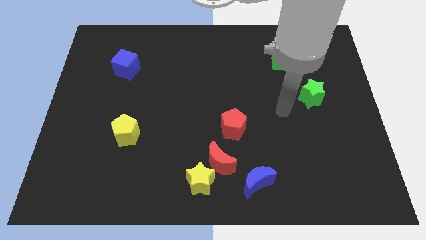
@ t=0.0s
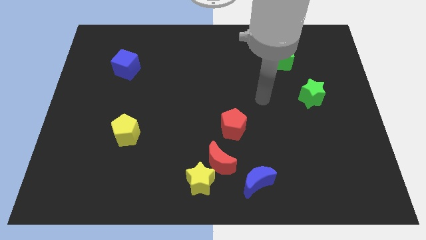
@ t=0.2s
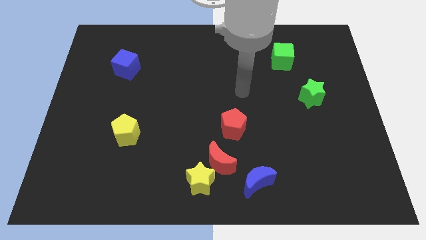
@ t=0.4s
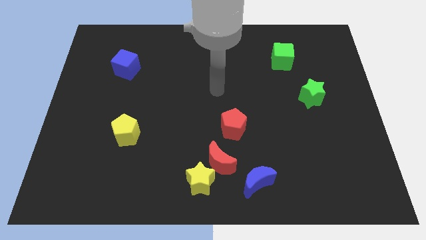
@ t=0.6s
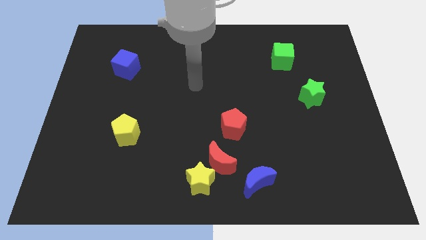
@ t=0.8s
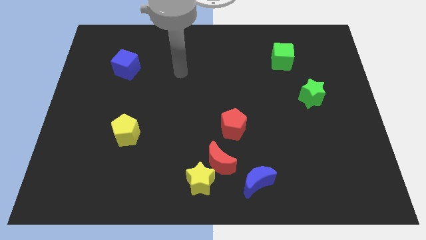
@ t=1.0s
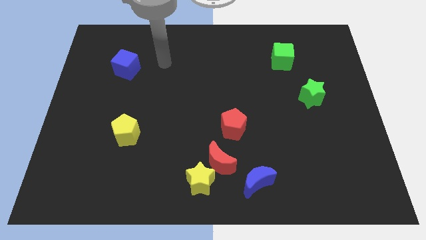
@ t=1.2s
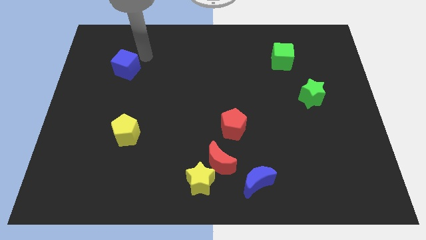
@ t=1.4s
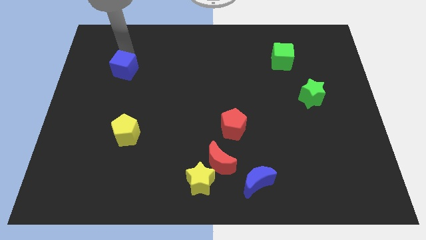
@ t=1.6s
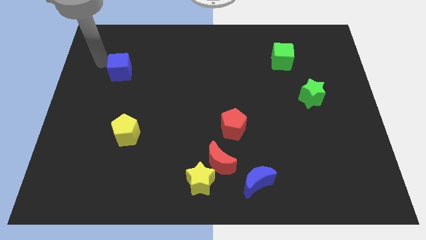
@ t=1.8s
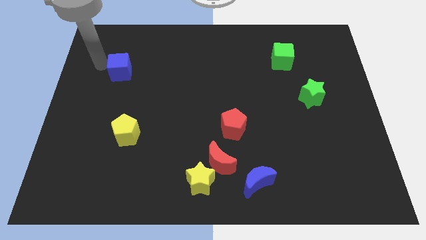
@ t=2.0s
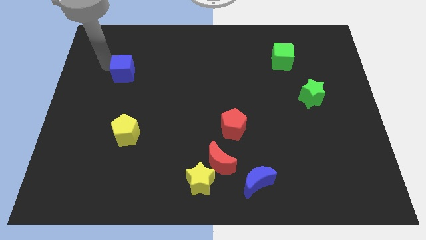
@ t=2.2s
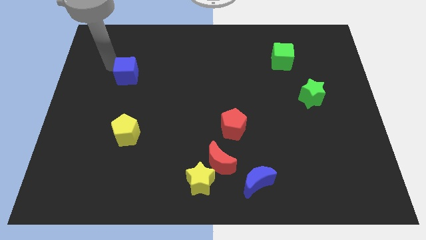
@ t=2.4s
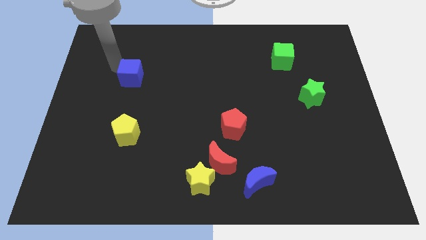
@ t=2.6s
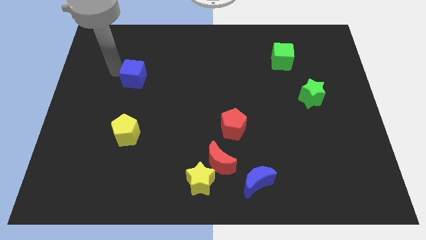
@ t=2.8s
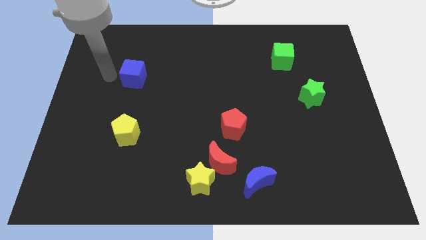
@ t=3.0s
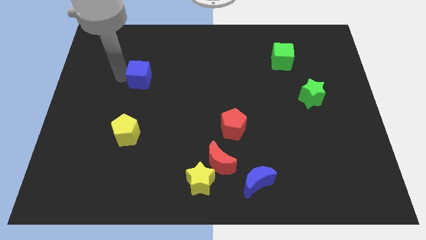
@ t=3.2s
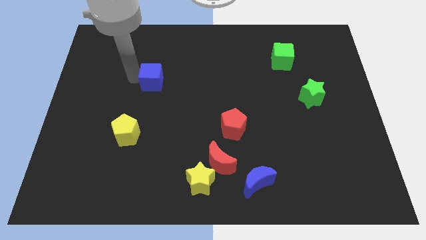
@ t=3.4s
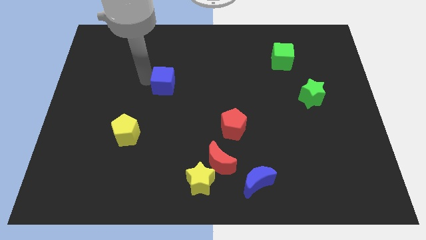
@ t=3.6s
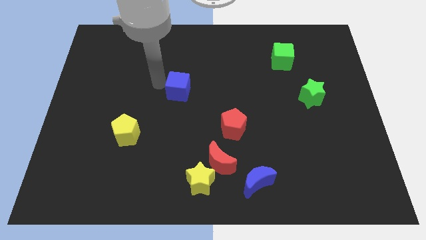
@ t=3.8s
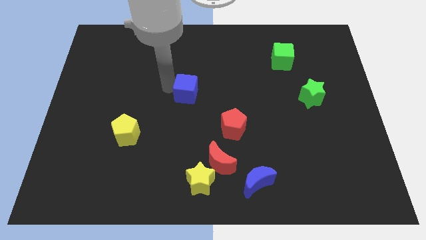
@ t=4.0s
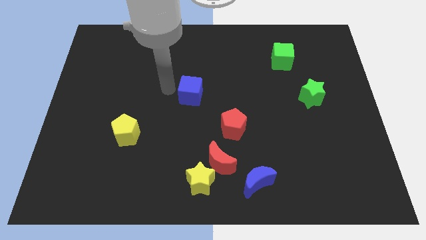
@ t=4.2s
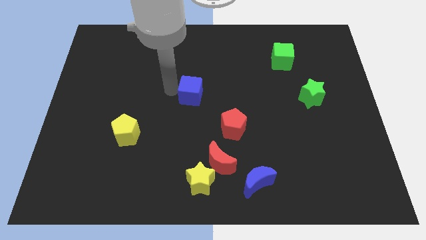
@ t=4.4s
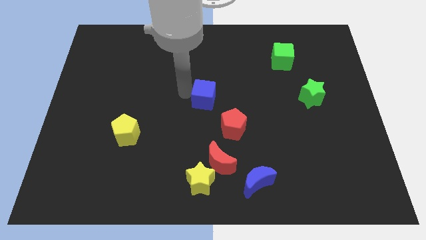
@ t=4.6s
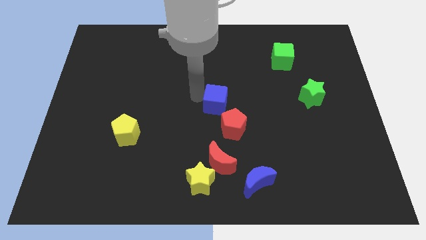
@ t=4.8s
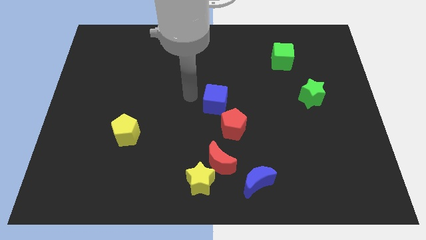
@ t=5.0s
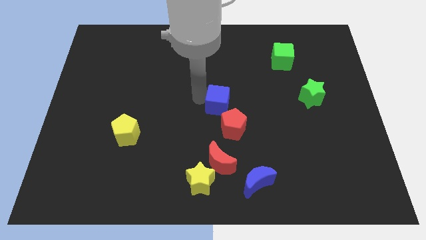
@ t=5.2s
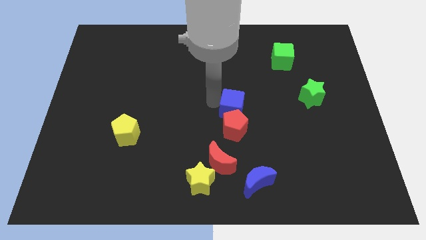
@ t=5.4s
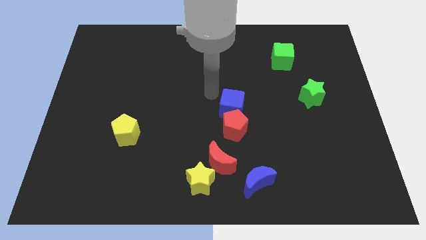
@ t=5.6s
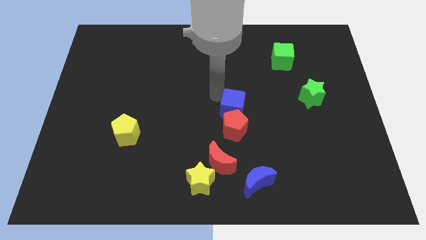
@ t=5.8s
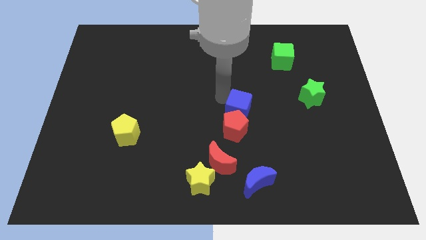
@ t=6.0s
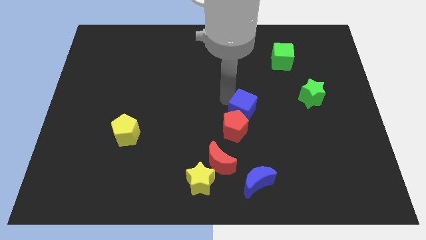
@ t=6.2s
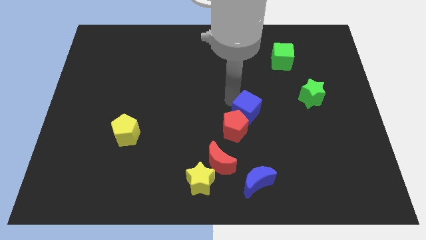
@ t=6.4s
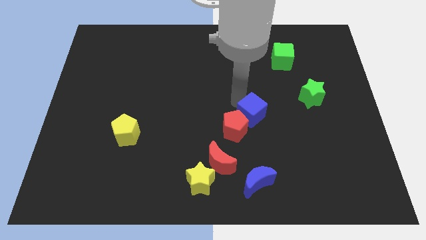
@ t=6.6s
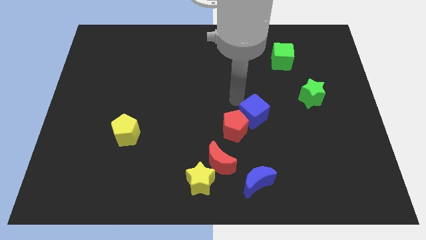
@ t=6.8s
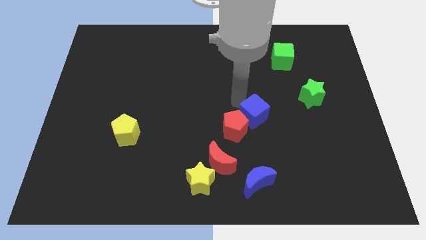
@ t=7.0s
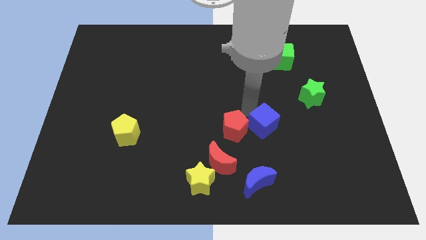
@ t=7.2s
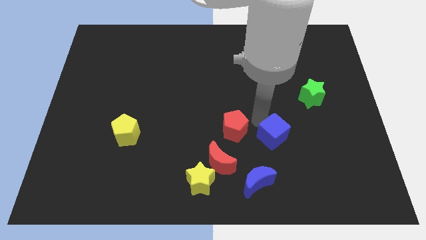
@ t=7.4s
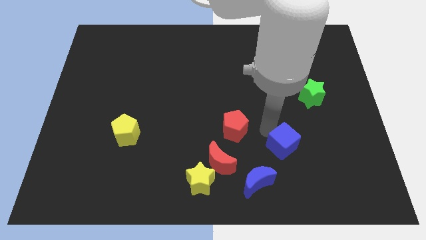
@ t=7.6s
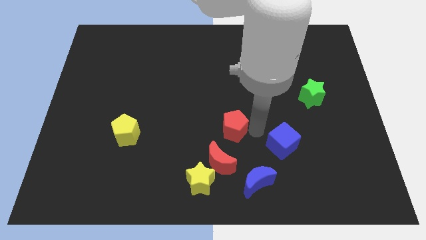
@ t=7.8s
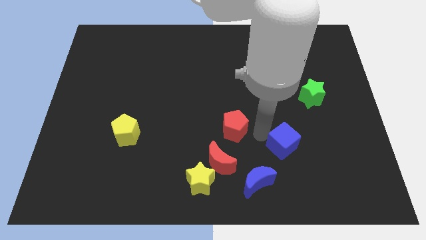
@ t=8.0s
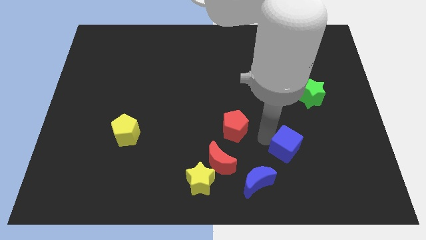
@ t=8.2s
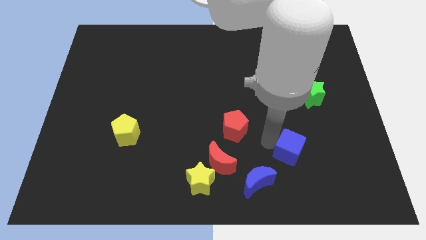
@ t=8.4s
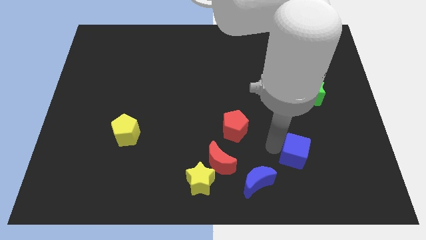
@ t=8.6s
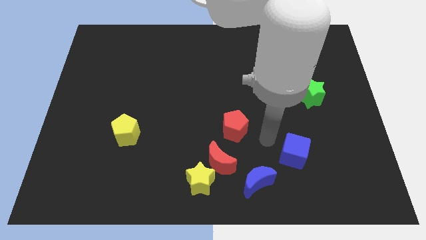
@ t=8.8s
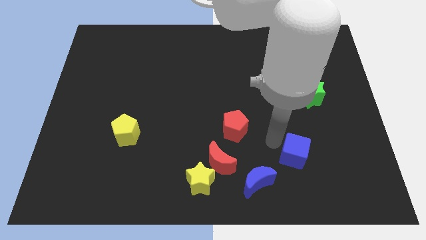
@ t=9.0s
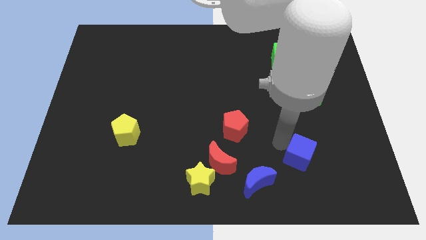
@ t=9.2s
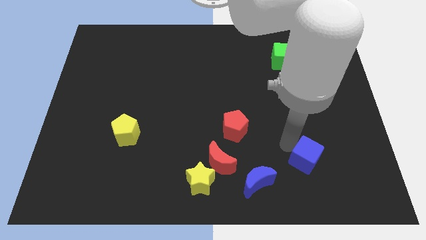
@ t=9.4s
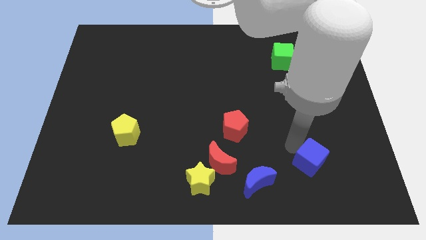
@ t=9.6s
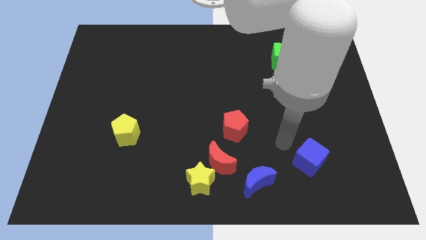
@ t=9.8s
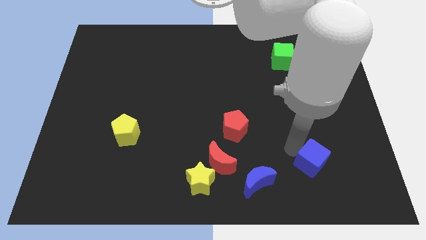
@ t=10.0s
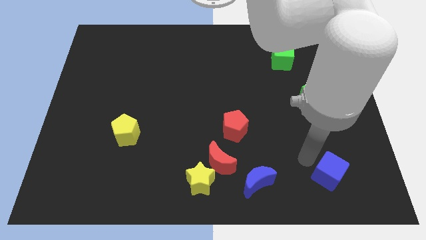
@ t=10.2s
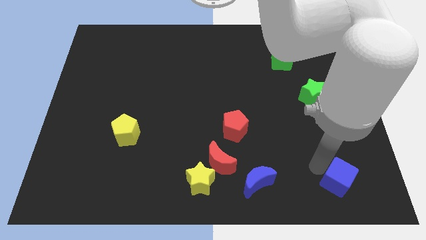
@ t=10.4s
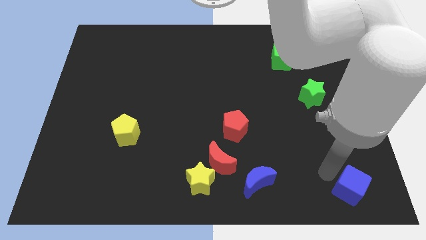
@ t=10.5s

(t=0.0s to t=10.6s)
slide the blue cube to the lower right corner
